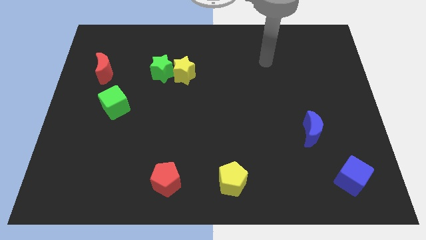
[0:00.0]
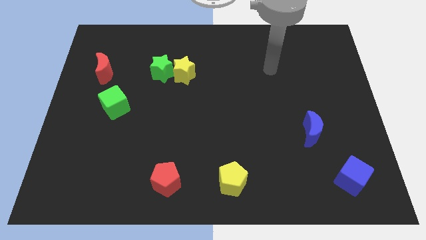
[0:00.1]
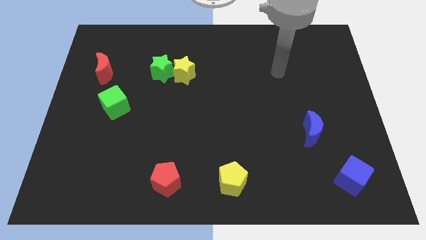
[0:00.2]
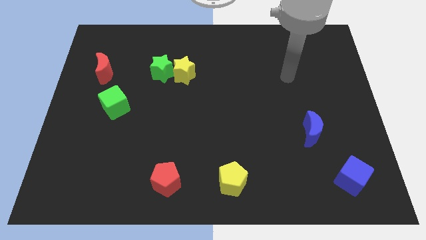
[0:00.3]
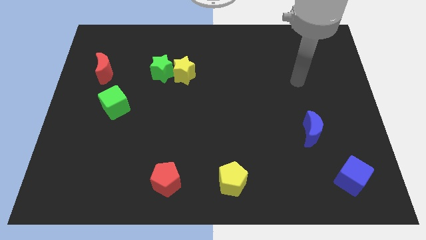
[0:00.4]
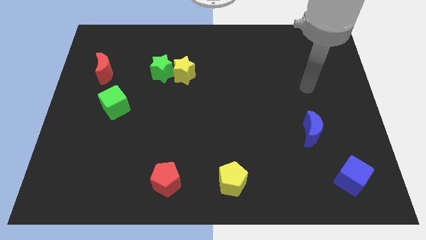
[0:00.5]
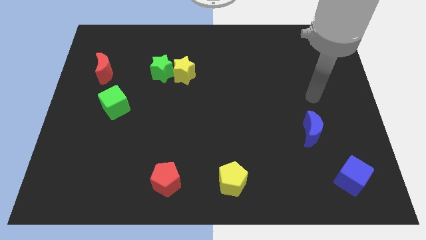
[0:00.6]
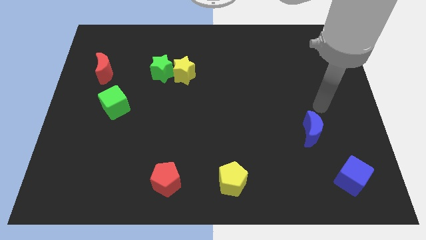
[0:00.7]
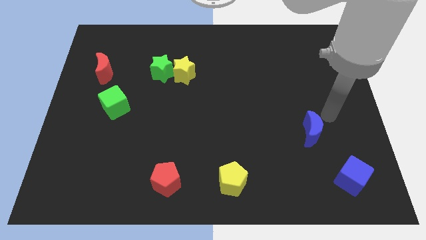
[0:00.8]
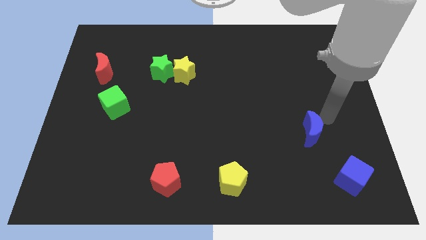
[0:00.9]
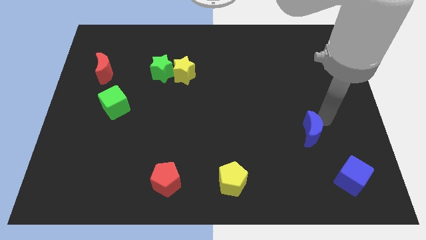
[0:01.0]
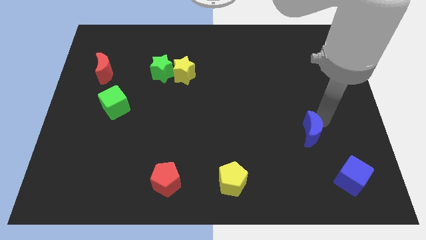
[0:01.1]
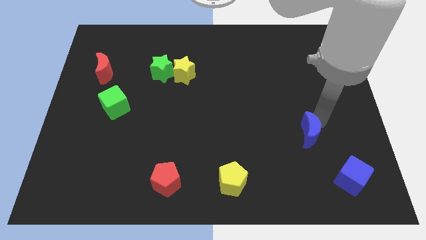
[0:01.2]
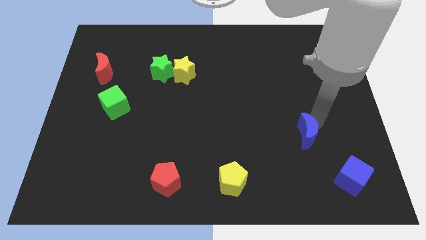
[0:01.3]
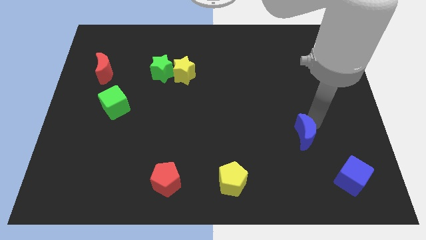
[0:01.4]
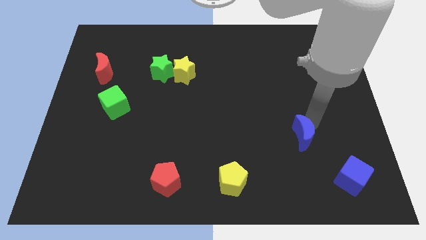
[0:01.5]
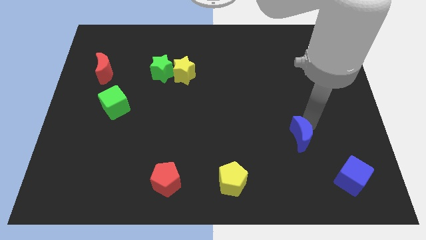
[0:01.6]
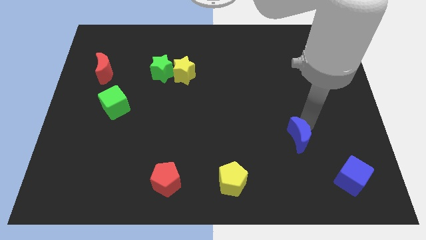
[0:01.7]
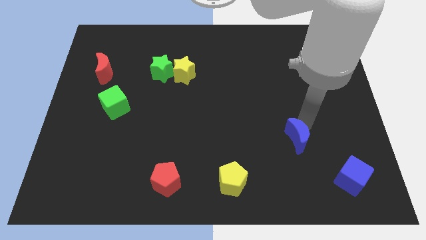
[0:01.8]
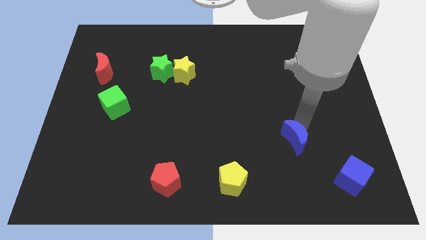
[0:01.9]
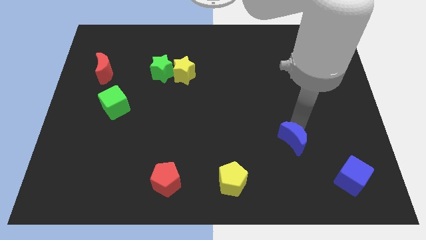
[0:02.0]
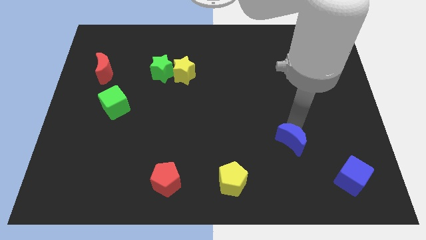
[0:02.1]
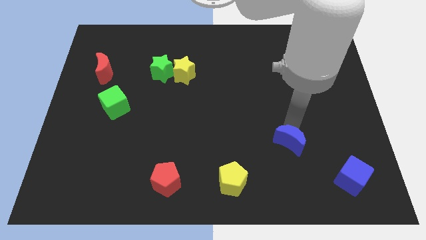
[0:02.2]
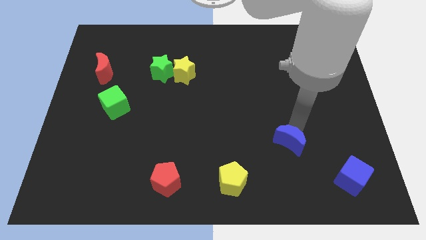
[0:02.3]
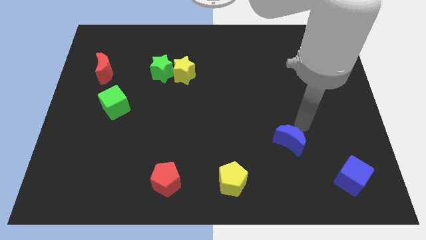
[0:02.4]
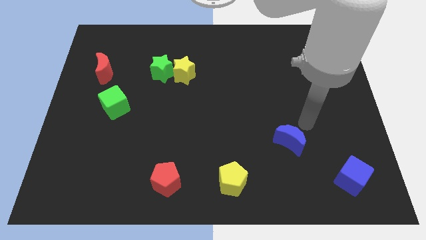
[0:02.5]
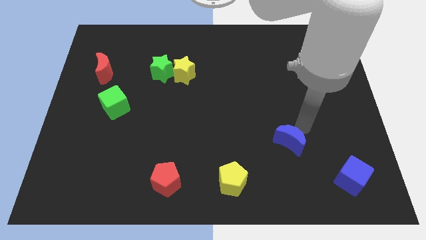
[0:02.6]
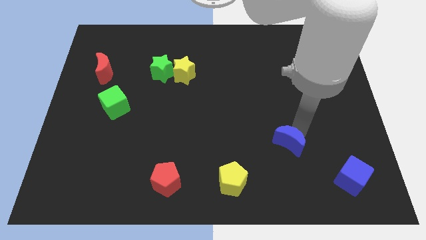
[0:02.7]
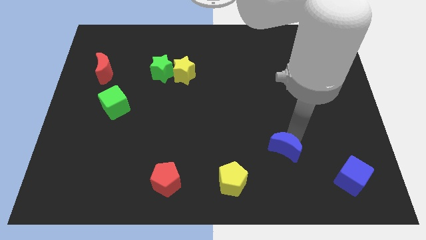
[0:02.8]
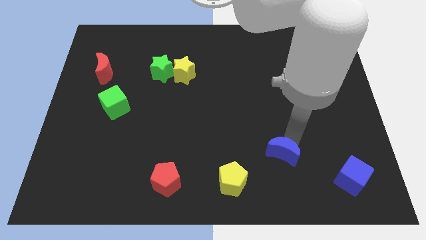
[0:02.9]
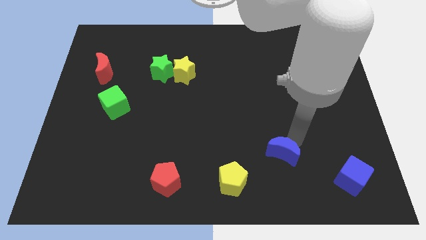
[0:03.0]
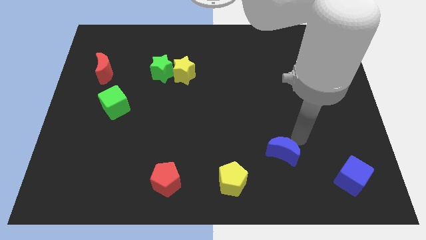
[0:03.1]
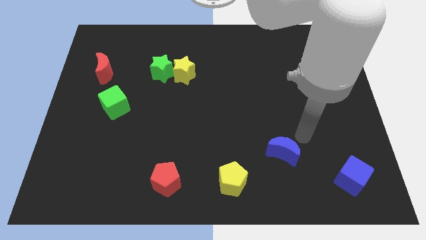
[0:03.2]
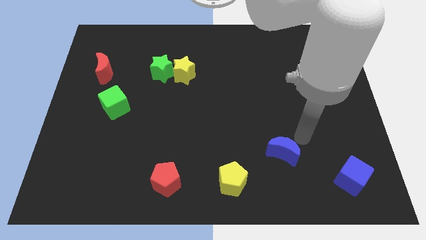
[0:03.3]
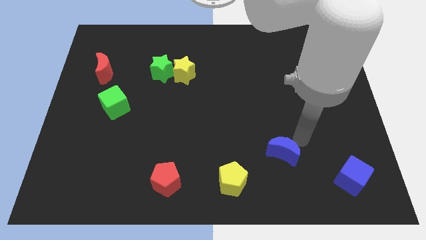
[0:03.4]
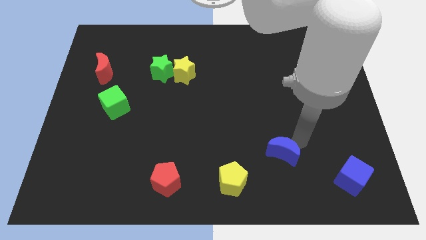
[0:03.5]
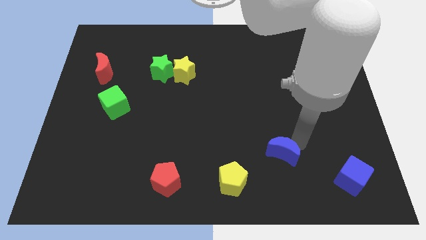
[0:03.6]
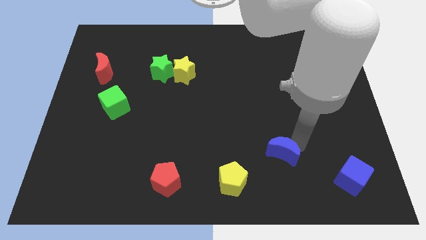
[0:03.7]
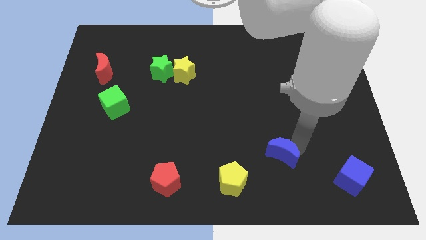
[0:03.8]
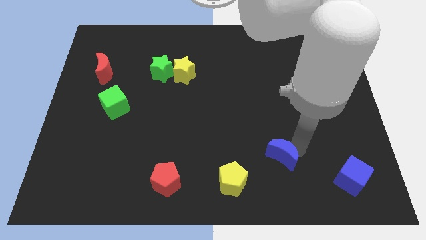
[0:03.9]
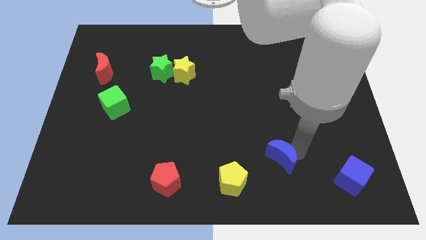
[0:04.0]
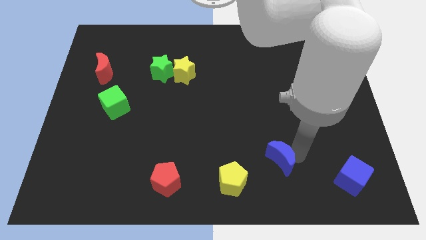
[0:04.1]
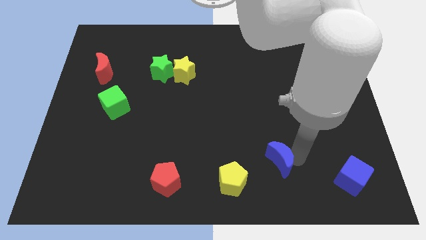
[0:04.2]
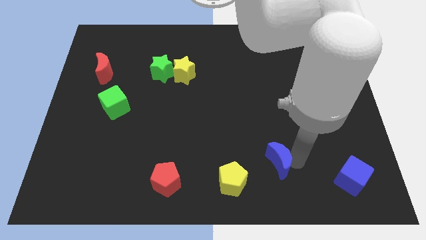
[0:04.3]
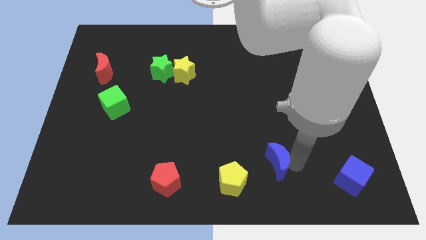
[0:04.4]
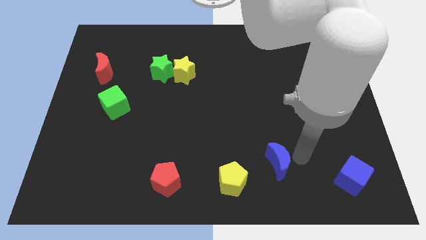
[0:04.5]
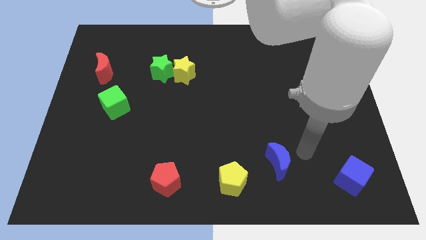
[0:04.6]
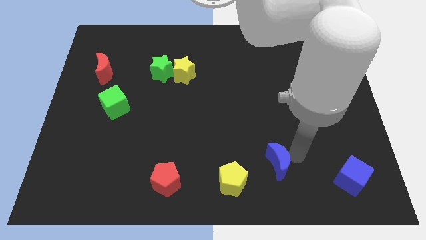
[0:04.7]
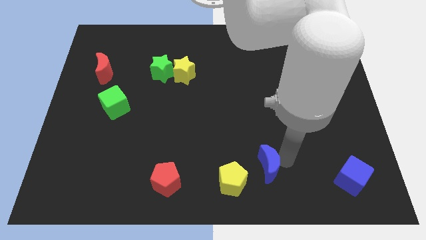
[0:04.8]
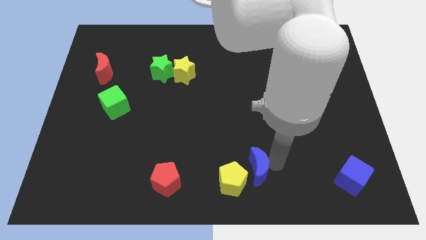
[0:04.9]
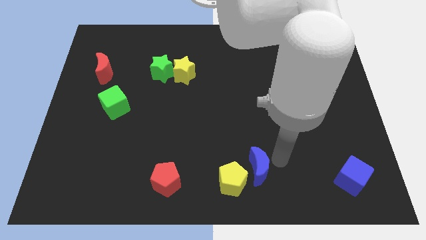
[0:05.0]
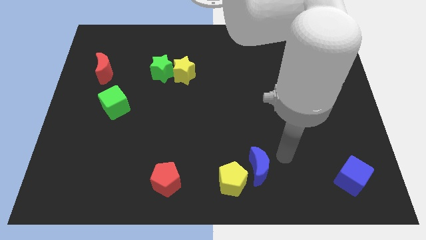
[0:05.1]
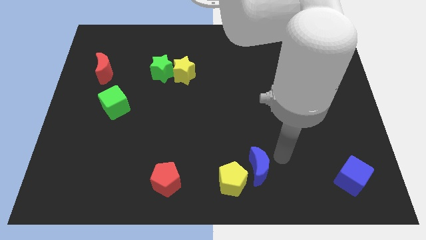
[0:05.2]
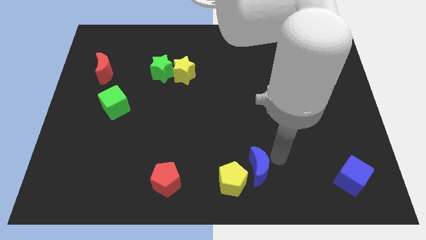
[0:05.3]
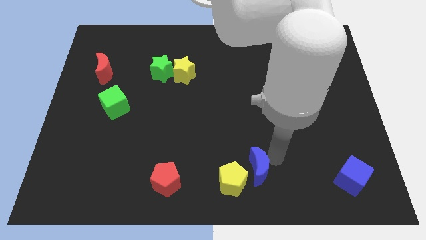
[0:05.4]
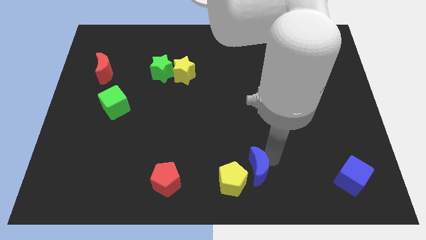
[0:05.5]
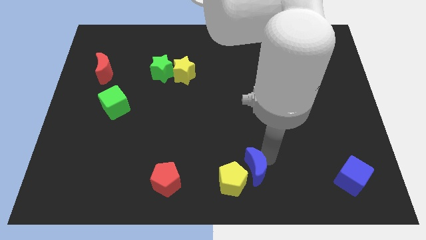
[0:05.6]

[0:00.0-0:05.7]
slide the blue moon towards the yellow pentagon

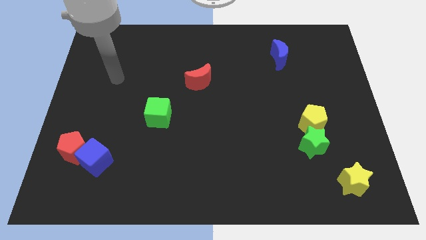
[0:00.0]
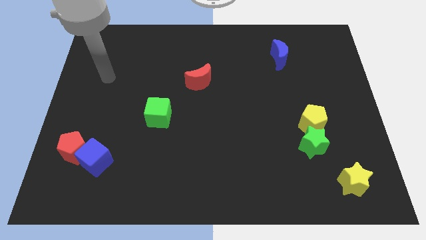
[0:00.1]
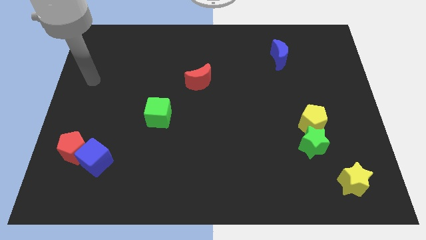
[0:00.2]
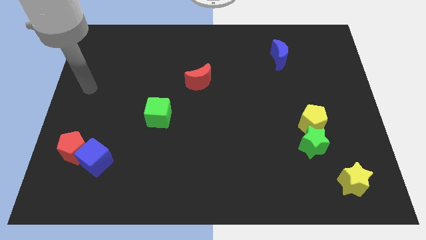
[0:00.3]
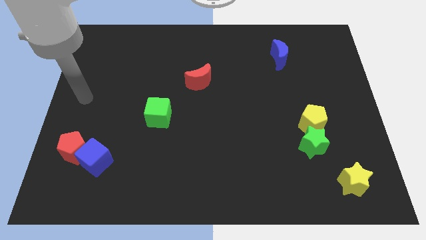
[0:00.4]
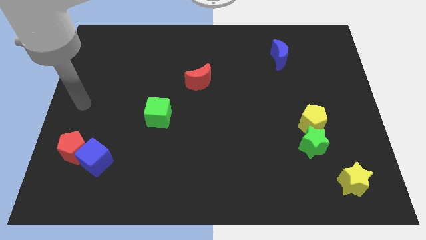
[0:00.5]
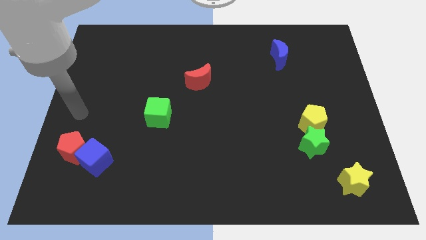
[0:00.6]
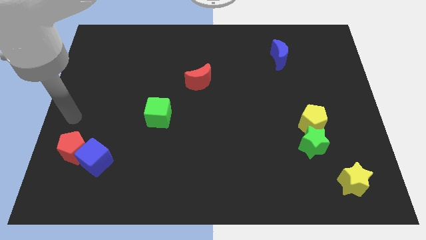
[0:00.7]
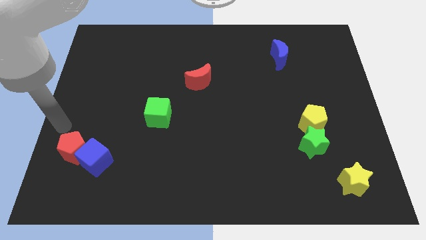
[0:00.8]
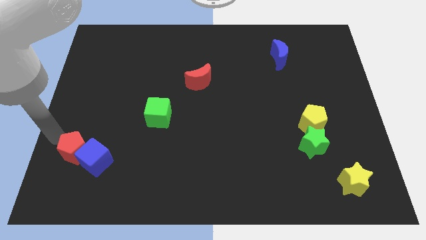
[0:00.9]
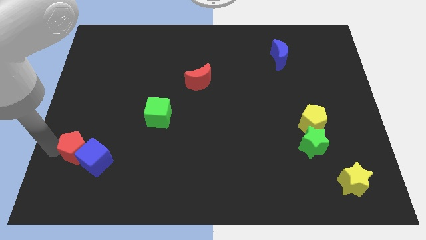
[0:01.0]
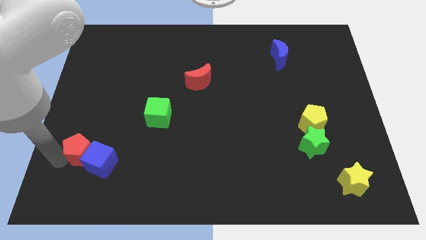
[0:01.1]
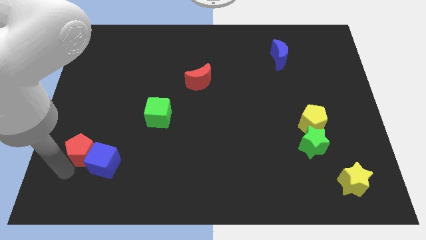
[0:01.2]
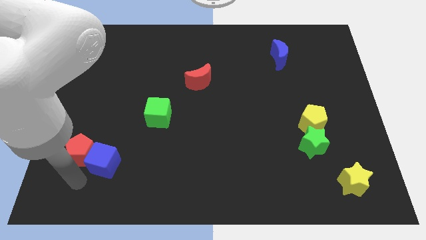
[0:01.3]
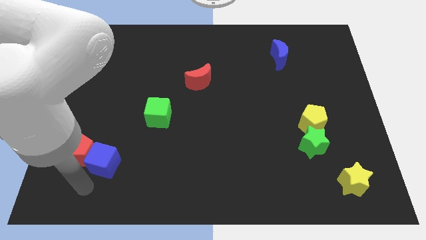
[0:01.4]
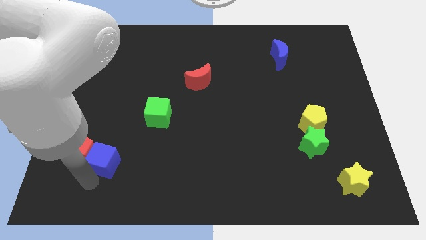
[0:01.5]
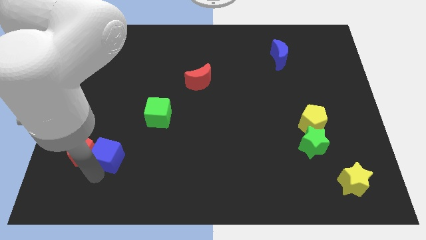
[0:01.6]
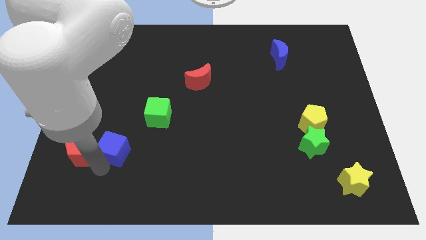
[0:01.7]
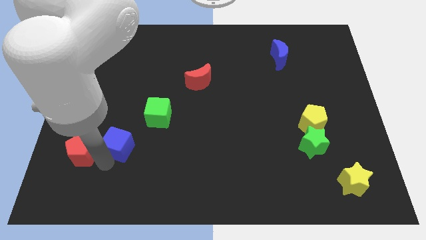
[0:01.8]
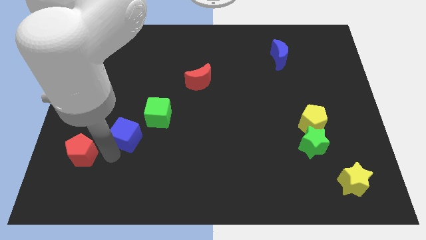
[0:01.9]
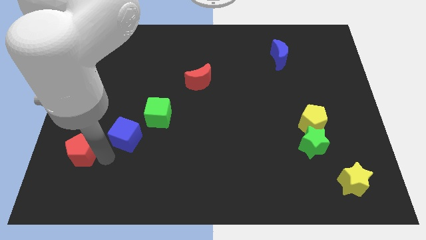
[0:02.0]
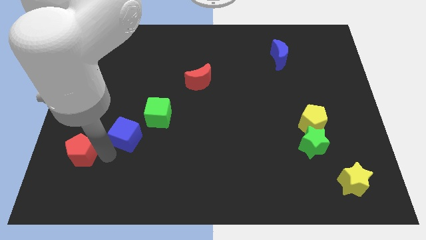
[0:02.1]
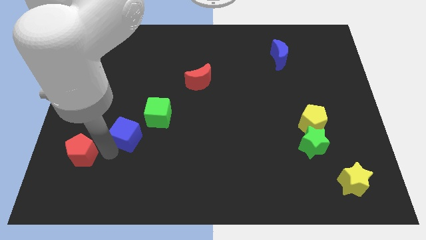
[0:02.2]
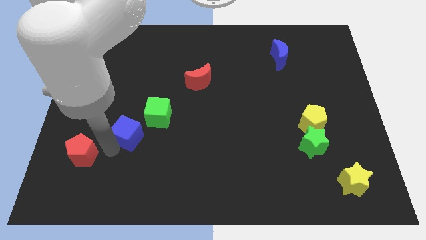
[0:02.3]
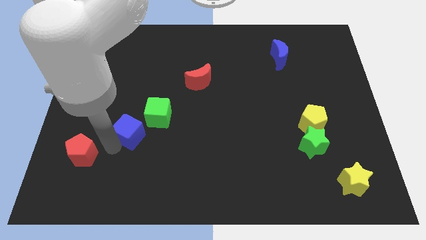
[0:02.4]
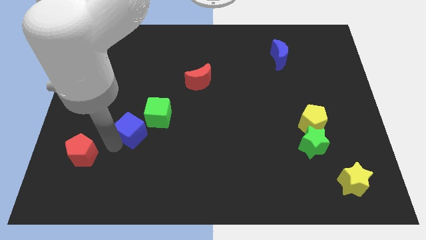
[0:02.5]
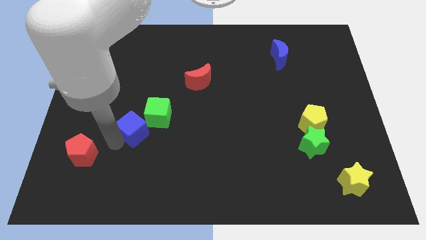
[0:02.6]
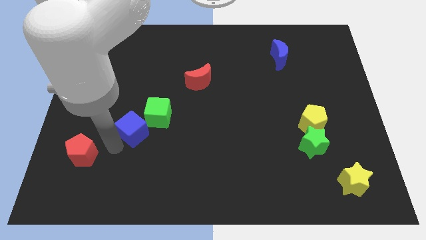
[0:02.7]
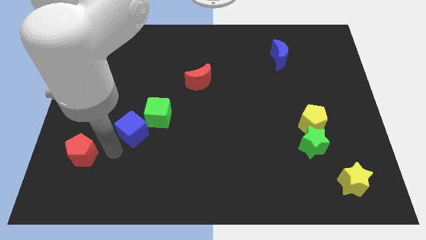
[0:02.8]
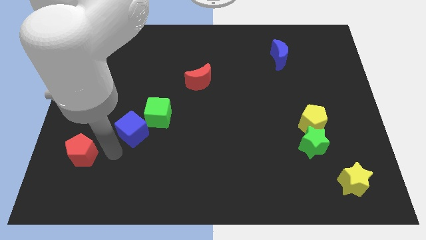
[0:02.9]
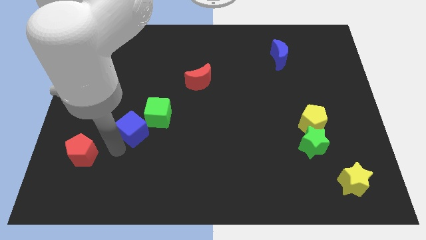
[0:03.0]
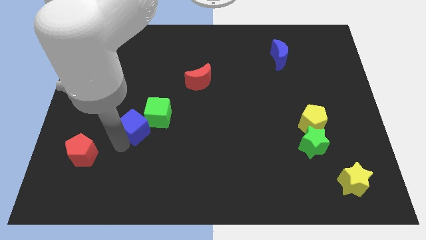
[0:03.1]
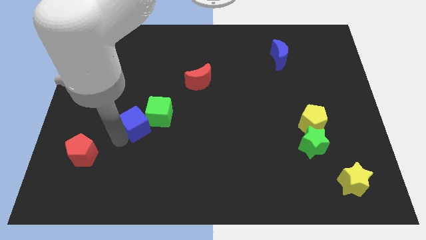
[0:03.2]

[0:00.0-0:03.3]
move the blue cube towards the green cube
